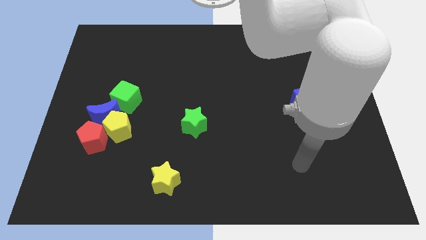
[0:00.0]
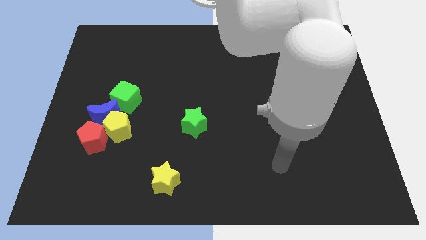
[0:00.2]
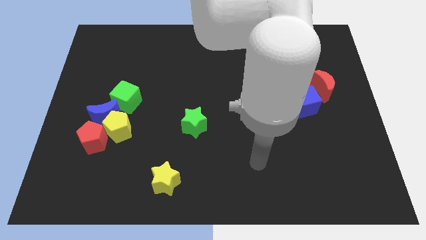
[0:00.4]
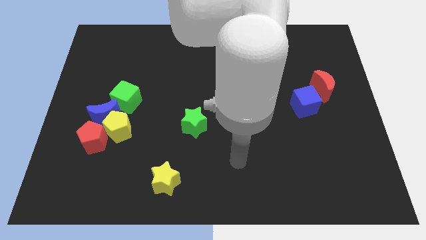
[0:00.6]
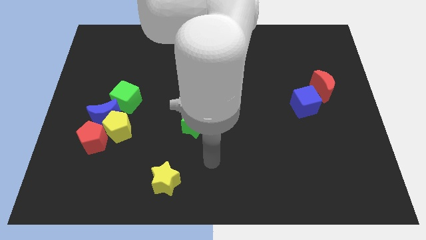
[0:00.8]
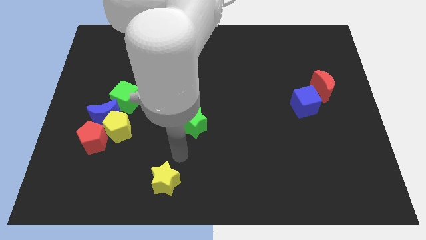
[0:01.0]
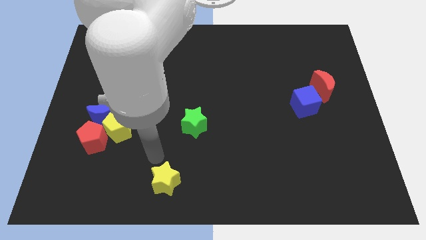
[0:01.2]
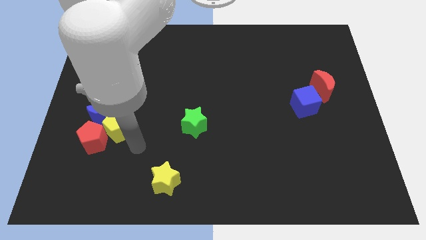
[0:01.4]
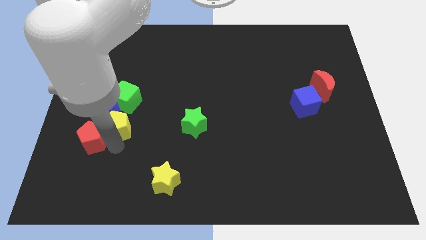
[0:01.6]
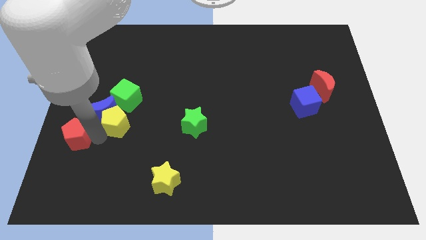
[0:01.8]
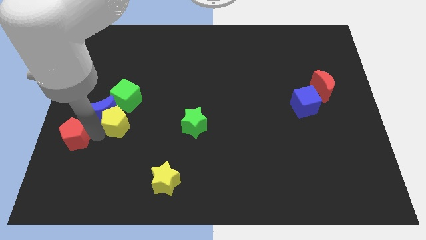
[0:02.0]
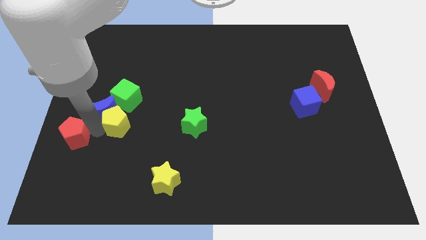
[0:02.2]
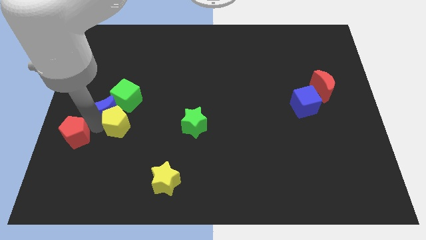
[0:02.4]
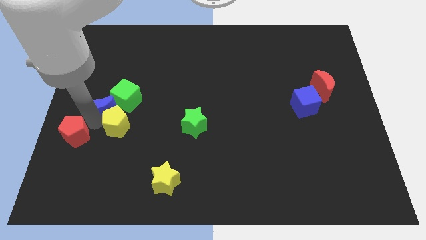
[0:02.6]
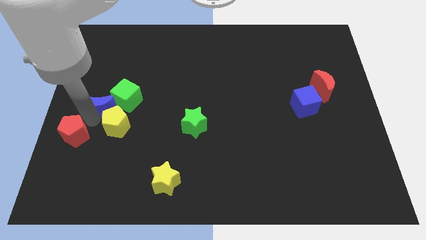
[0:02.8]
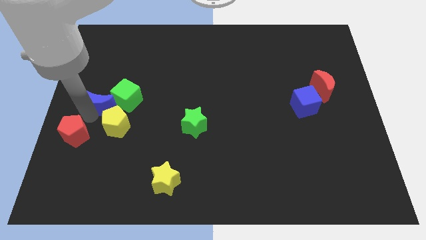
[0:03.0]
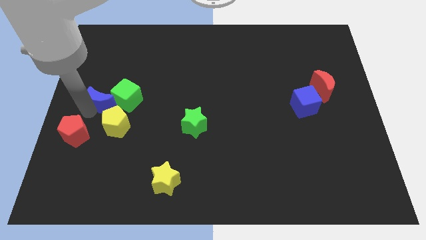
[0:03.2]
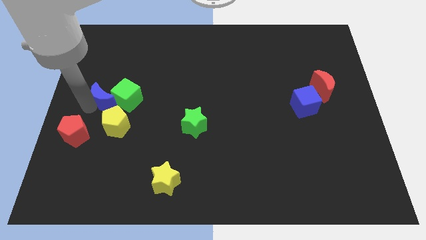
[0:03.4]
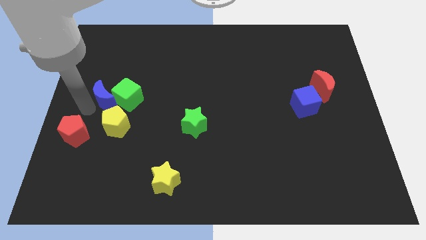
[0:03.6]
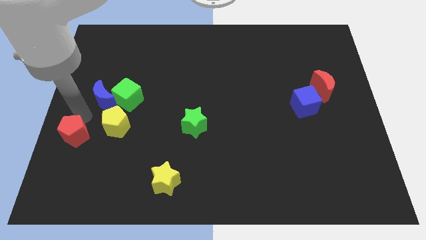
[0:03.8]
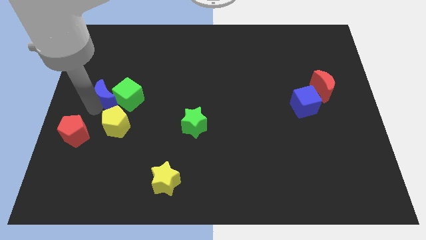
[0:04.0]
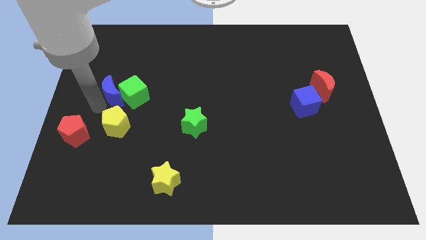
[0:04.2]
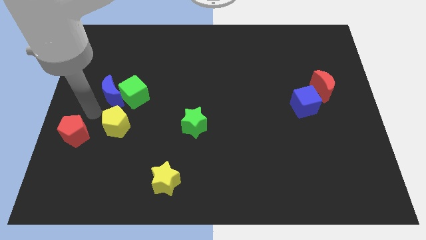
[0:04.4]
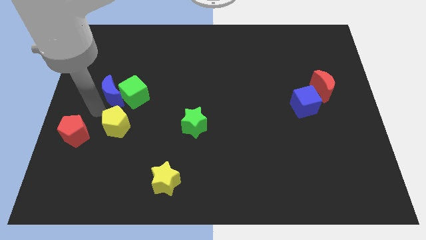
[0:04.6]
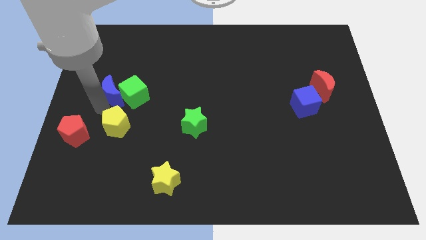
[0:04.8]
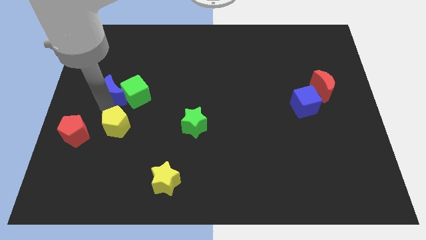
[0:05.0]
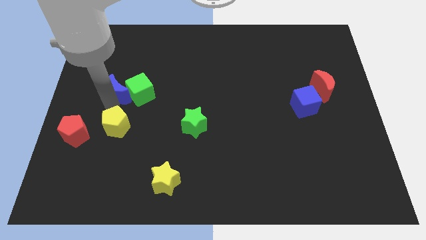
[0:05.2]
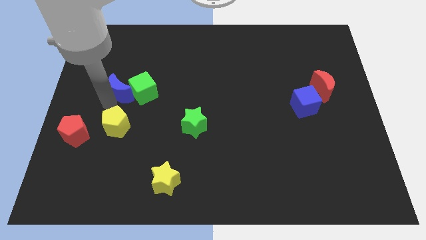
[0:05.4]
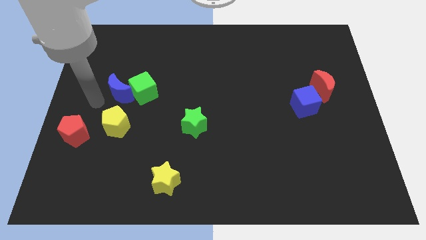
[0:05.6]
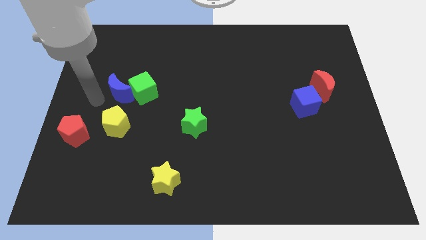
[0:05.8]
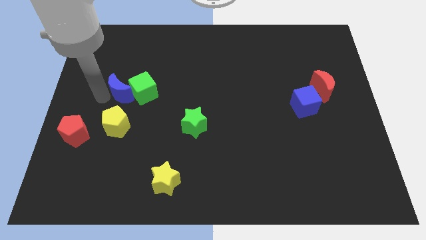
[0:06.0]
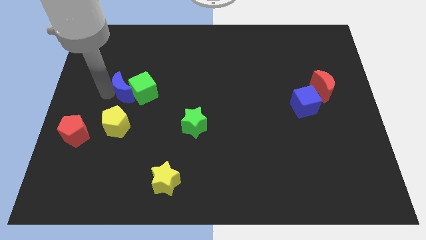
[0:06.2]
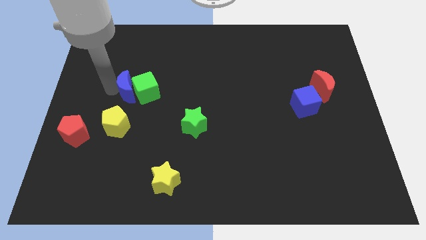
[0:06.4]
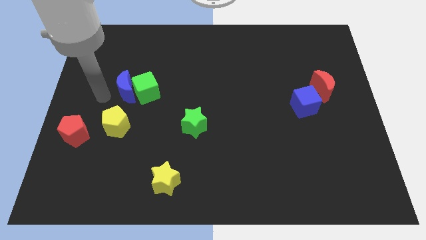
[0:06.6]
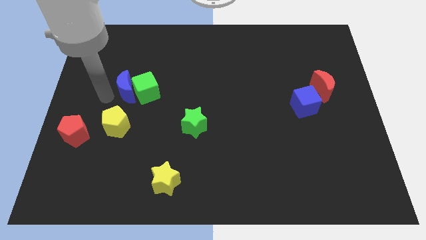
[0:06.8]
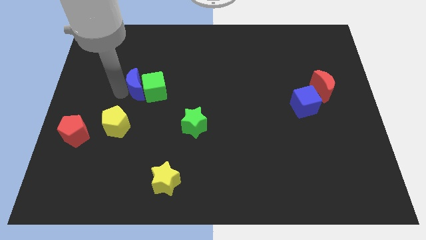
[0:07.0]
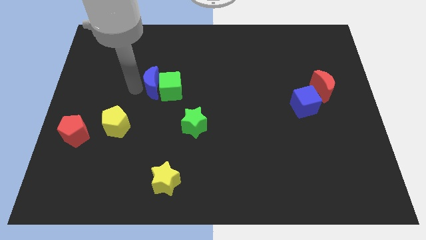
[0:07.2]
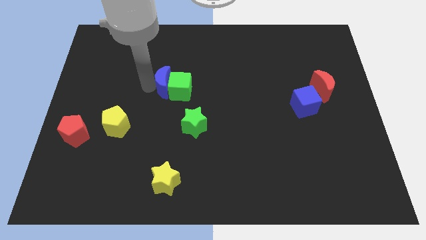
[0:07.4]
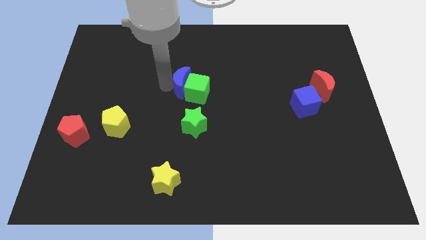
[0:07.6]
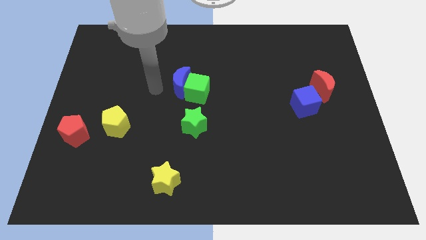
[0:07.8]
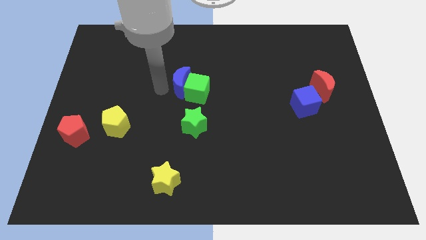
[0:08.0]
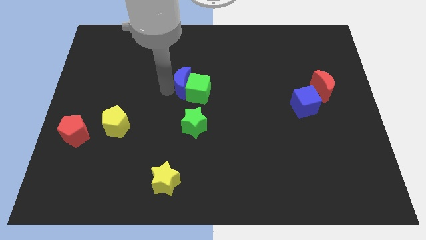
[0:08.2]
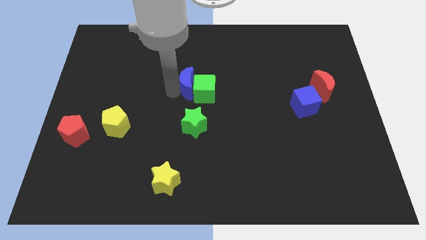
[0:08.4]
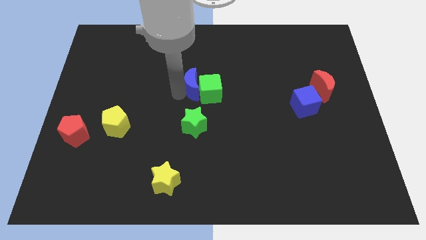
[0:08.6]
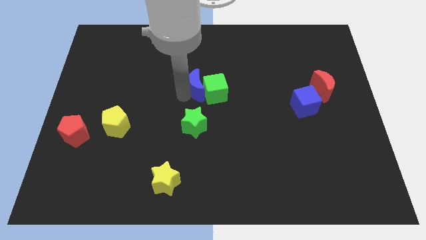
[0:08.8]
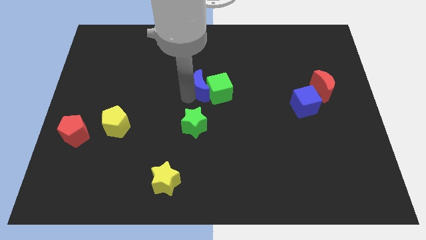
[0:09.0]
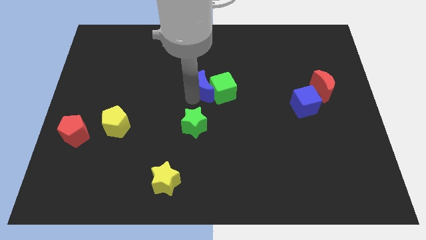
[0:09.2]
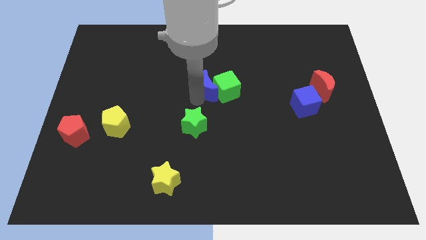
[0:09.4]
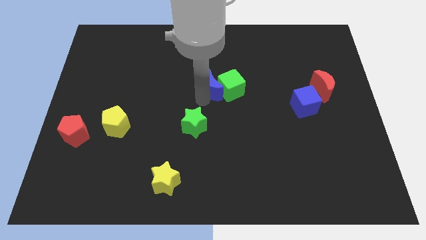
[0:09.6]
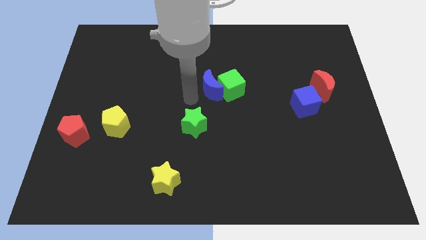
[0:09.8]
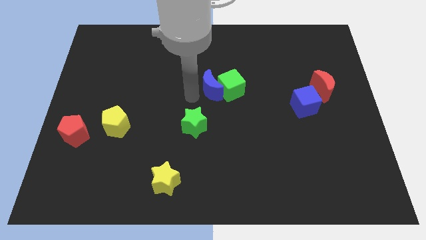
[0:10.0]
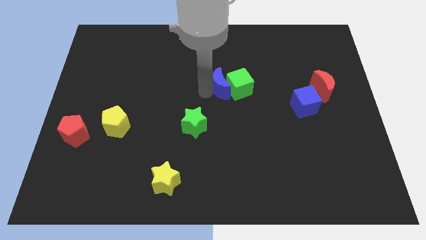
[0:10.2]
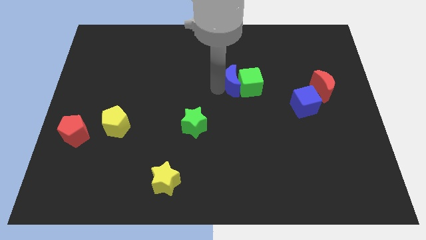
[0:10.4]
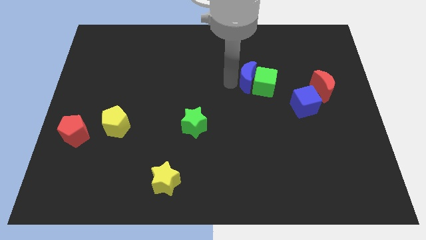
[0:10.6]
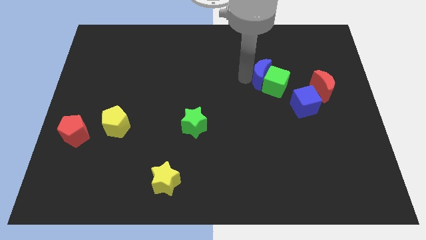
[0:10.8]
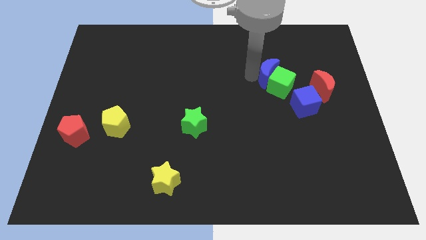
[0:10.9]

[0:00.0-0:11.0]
slide the blue moon to the left of the red moon

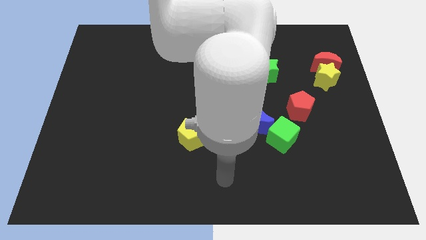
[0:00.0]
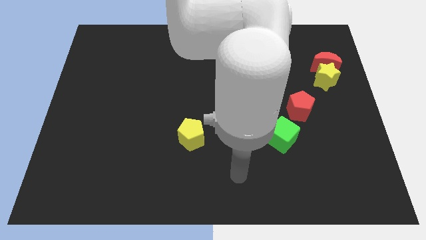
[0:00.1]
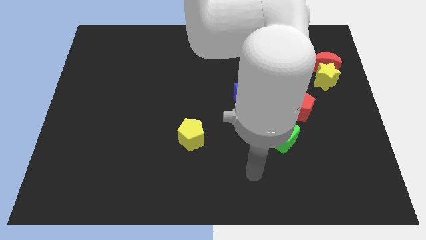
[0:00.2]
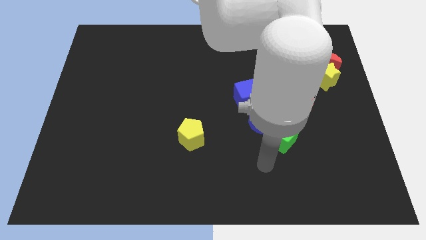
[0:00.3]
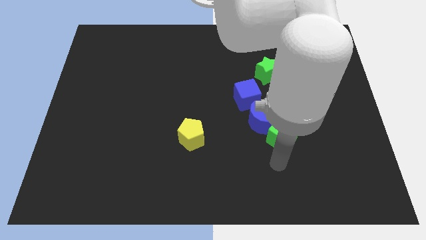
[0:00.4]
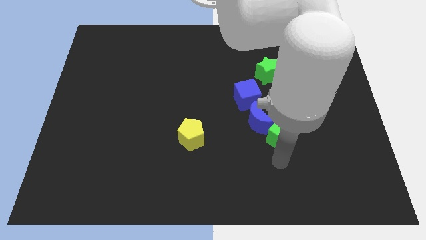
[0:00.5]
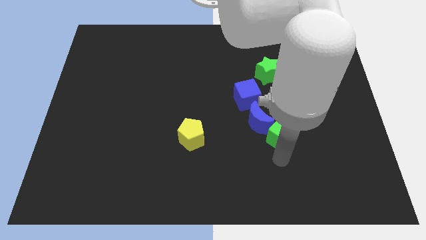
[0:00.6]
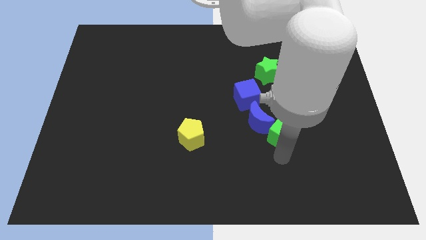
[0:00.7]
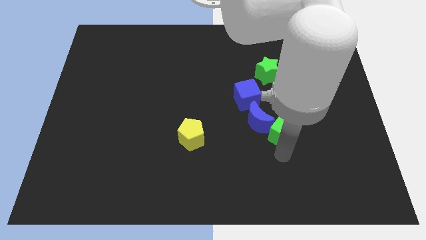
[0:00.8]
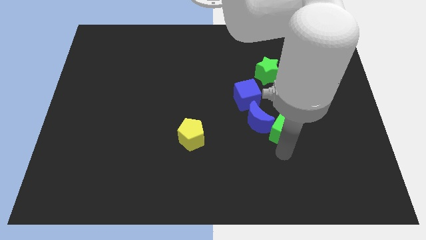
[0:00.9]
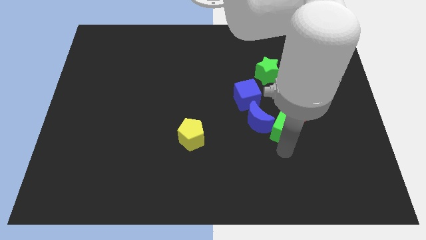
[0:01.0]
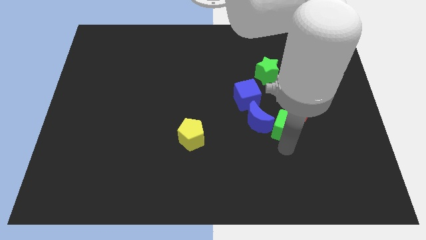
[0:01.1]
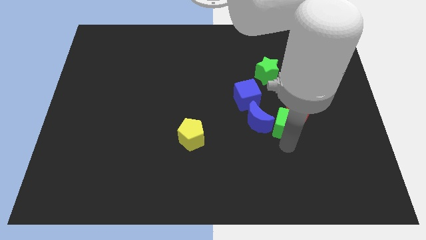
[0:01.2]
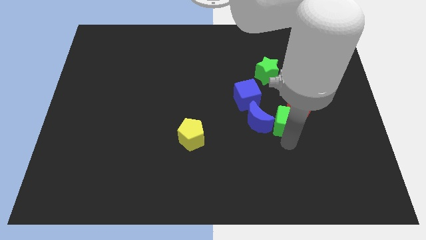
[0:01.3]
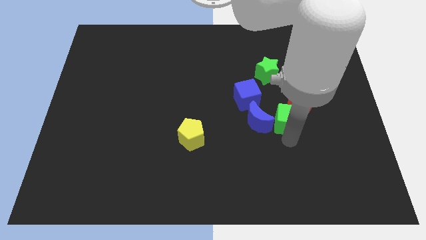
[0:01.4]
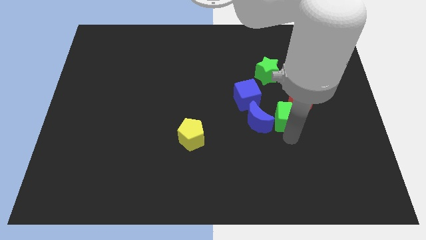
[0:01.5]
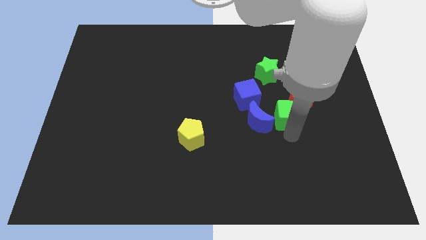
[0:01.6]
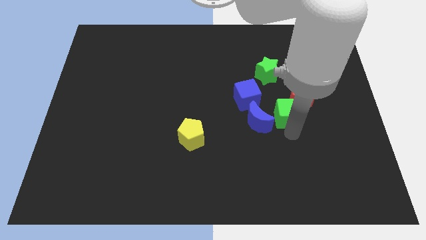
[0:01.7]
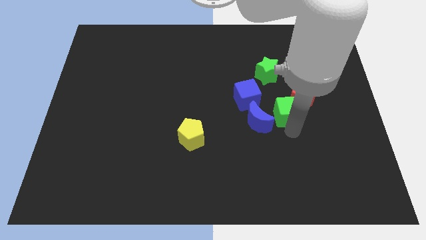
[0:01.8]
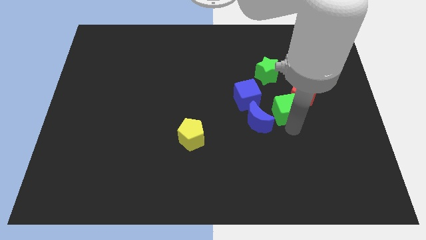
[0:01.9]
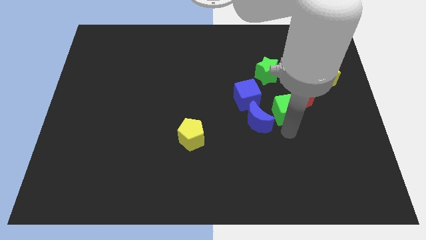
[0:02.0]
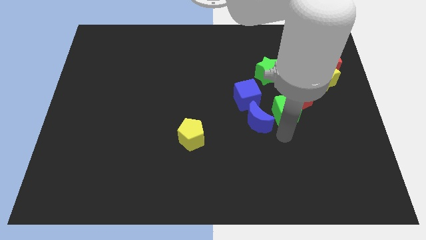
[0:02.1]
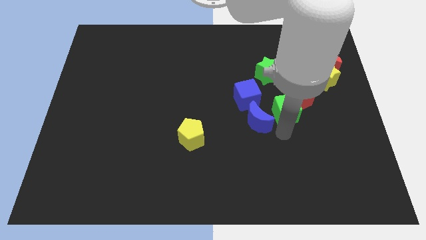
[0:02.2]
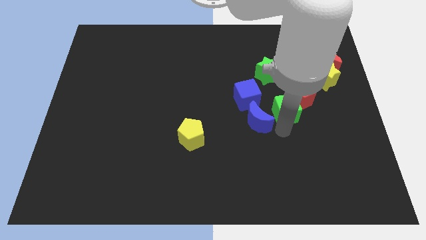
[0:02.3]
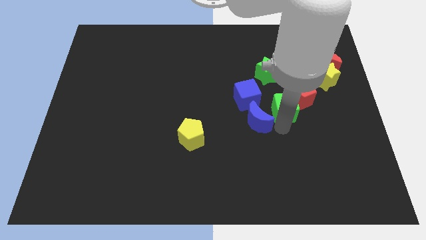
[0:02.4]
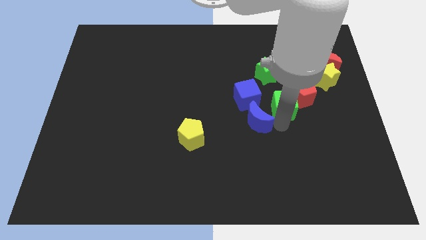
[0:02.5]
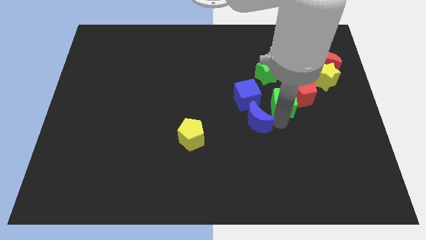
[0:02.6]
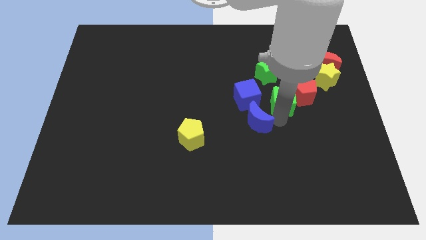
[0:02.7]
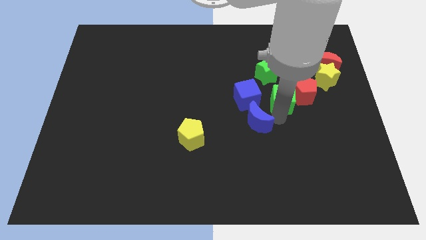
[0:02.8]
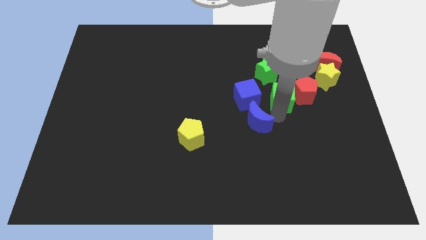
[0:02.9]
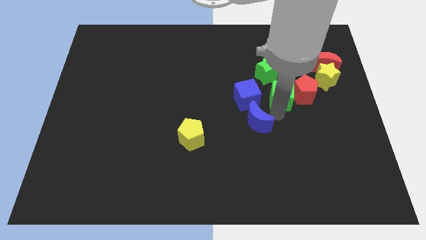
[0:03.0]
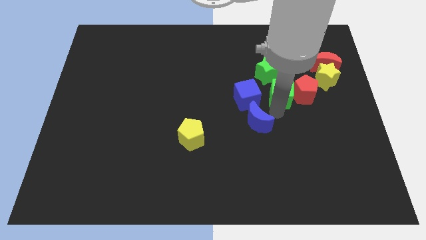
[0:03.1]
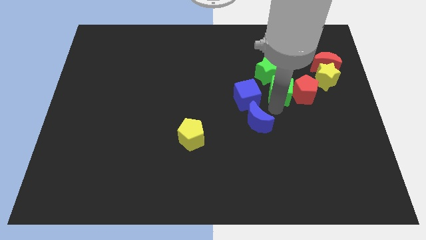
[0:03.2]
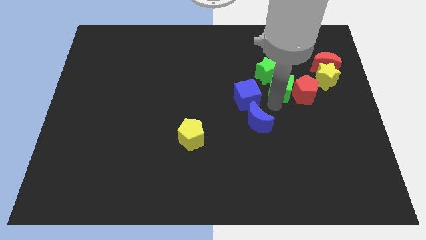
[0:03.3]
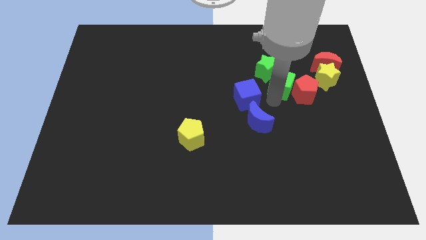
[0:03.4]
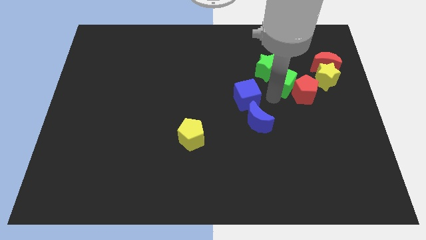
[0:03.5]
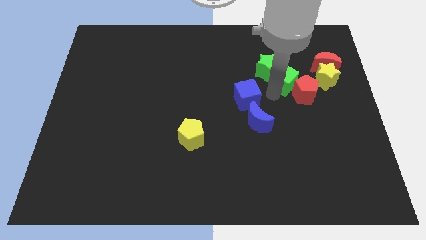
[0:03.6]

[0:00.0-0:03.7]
put the green cube above the red pentagon
